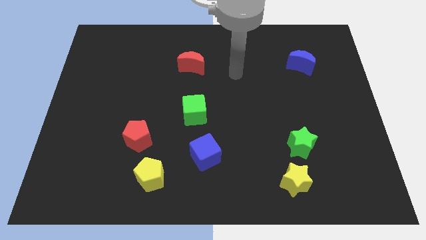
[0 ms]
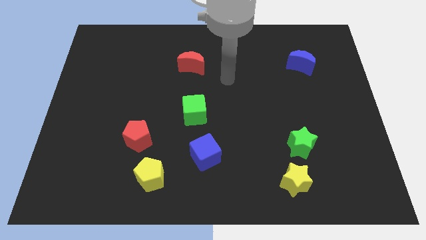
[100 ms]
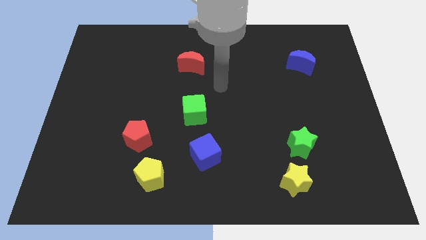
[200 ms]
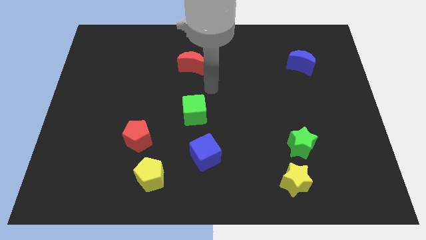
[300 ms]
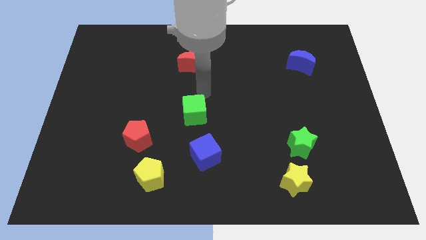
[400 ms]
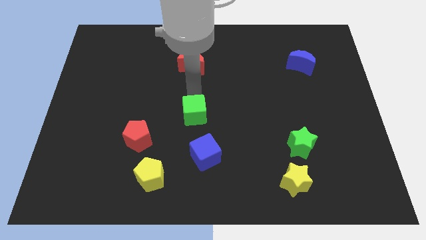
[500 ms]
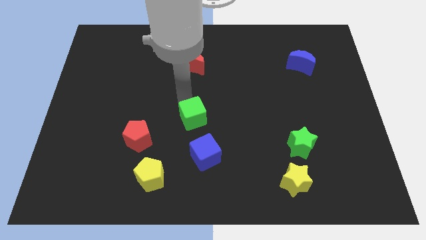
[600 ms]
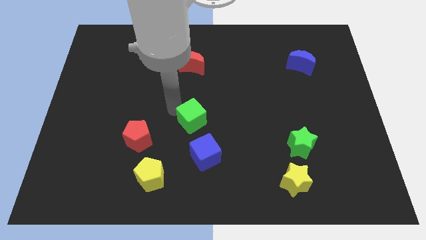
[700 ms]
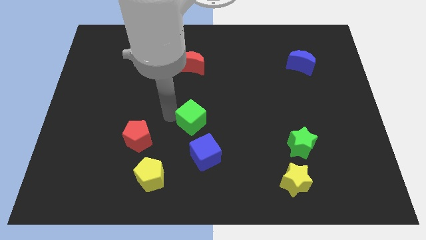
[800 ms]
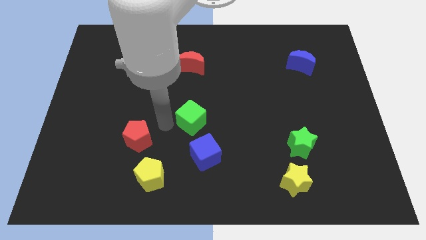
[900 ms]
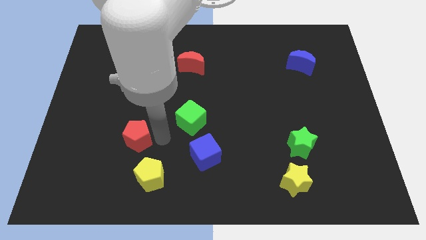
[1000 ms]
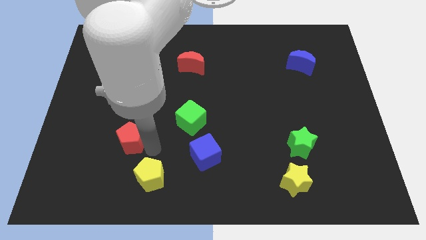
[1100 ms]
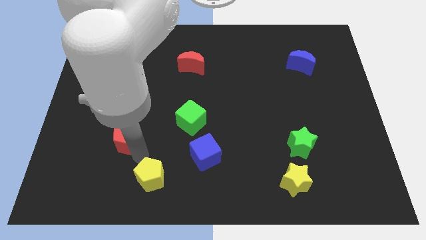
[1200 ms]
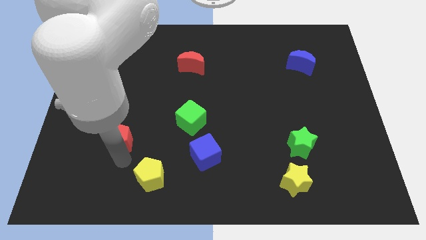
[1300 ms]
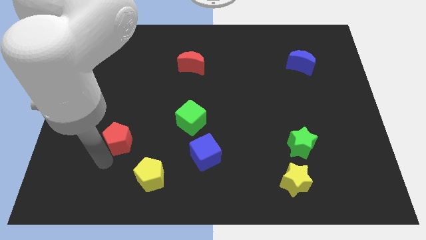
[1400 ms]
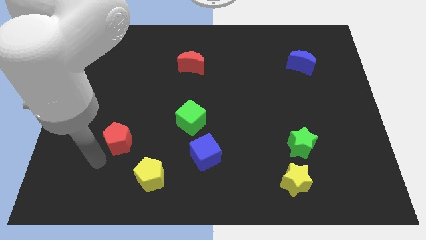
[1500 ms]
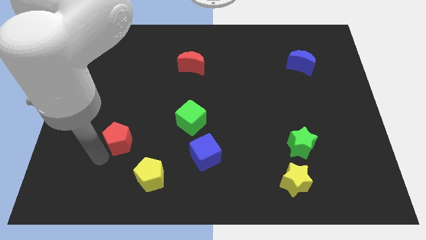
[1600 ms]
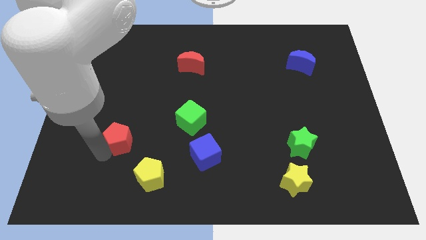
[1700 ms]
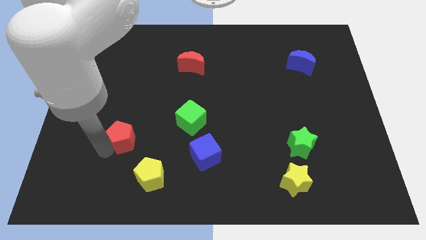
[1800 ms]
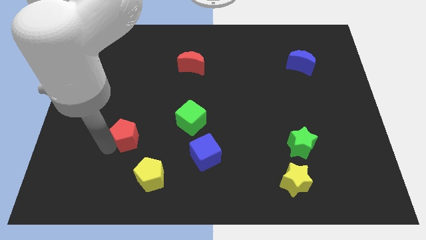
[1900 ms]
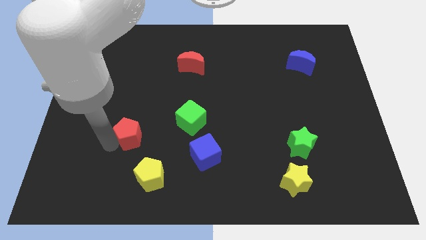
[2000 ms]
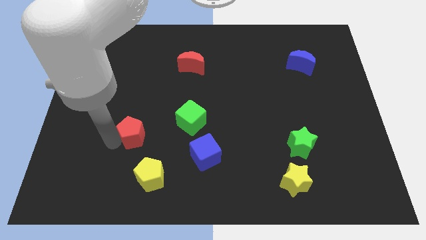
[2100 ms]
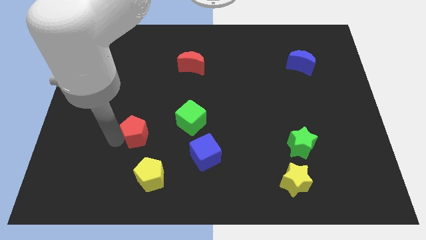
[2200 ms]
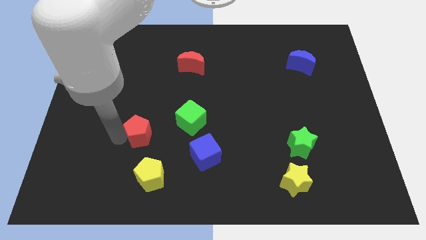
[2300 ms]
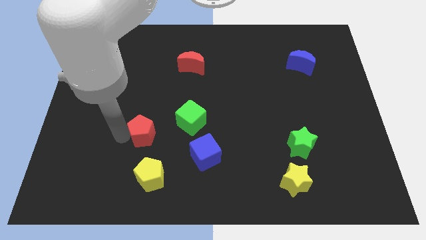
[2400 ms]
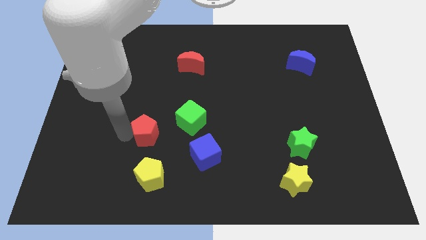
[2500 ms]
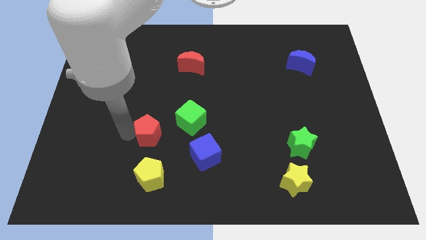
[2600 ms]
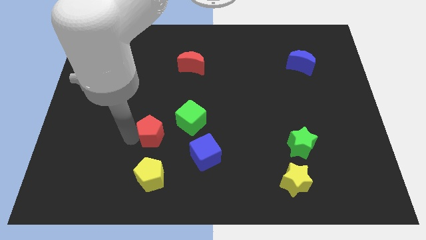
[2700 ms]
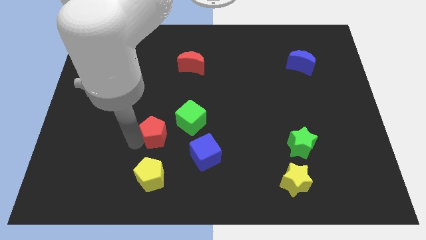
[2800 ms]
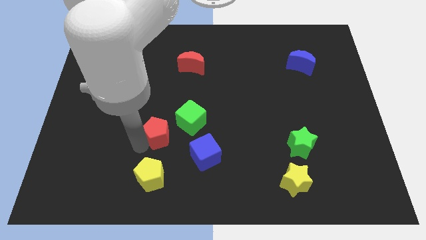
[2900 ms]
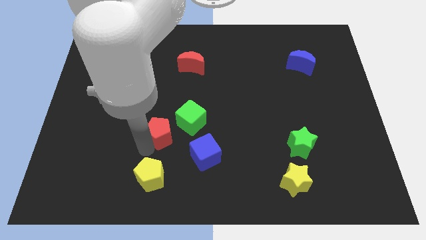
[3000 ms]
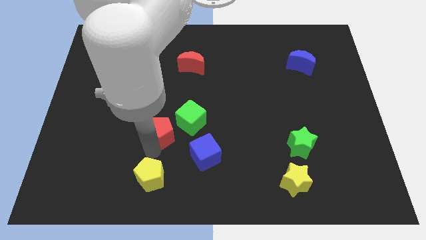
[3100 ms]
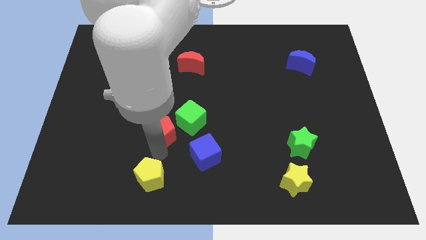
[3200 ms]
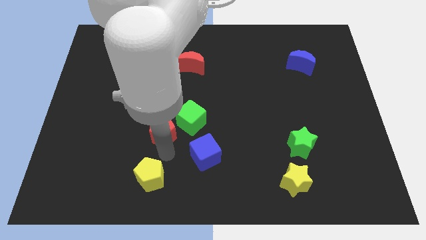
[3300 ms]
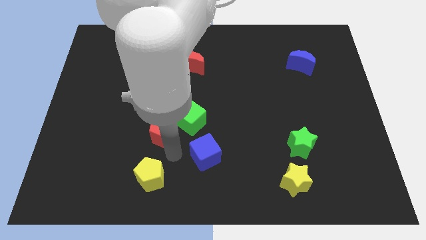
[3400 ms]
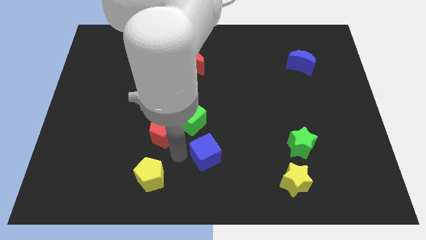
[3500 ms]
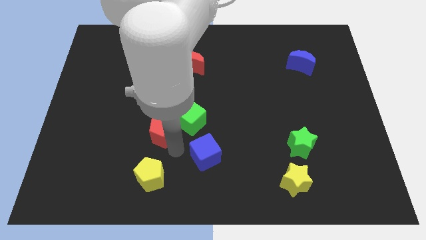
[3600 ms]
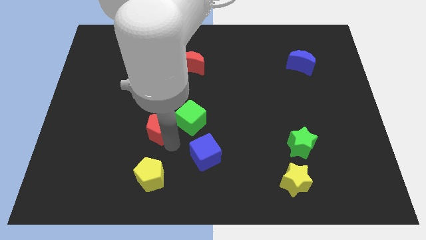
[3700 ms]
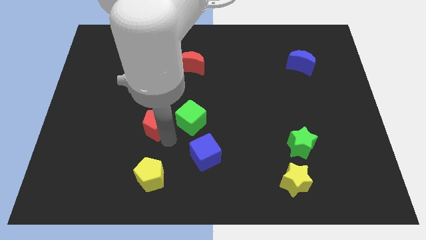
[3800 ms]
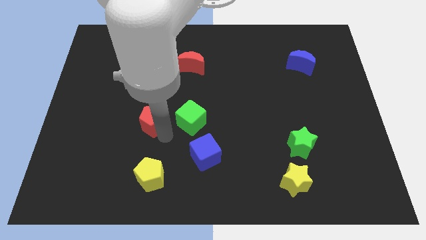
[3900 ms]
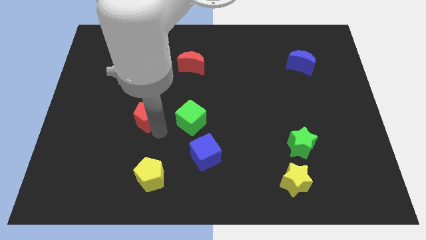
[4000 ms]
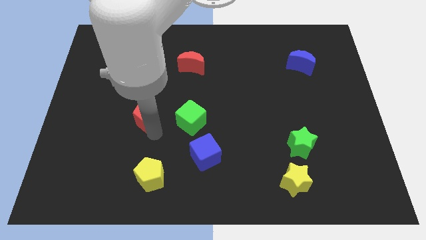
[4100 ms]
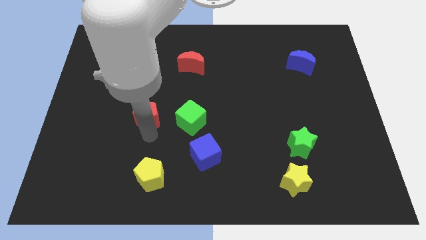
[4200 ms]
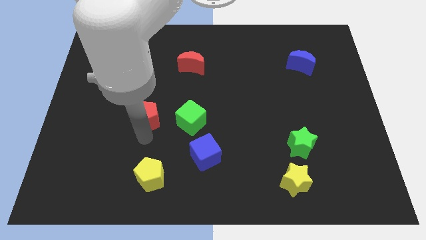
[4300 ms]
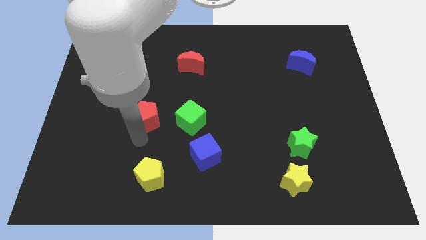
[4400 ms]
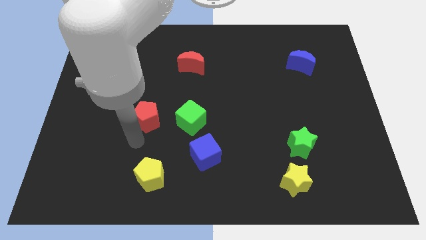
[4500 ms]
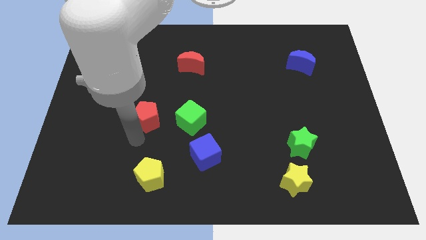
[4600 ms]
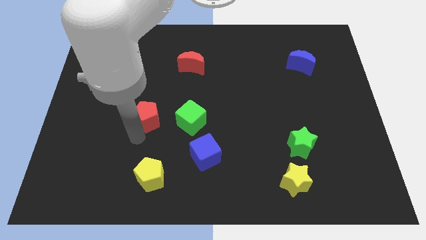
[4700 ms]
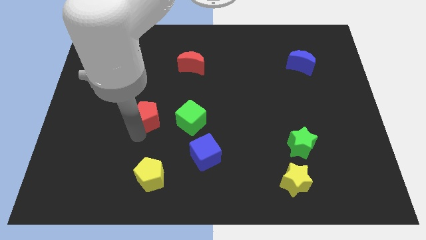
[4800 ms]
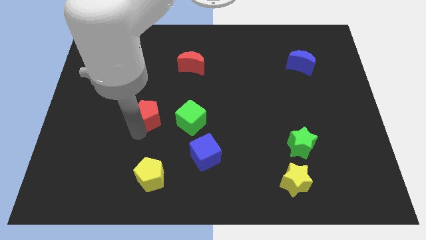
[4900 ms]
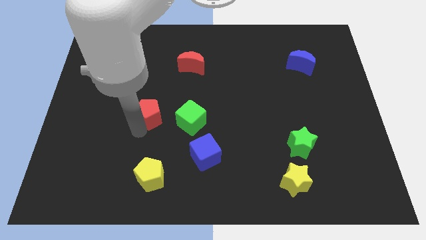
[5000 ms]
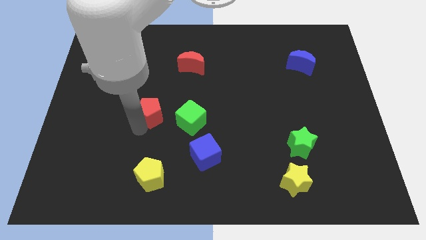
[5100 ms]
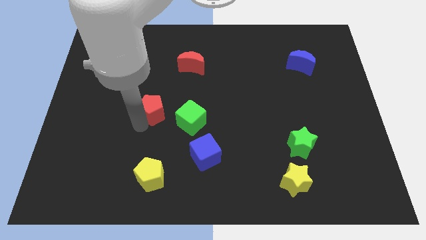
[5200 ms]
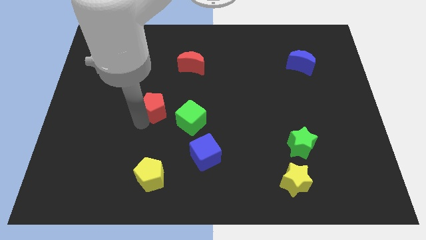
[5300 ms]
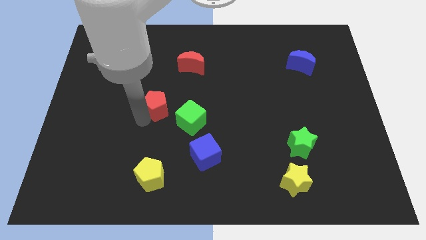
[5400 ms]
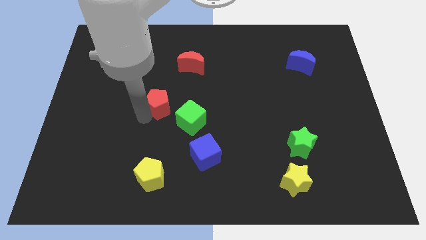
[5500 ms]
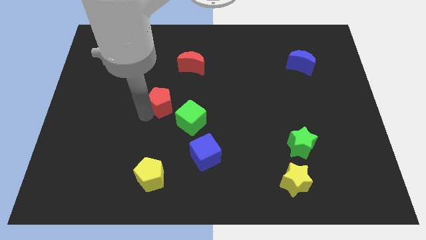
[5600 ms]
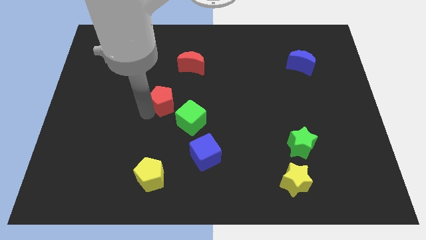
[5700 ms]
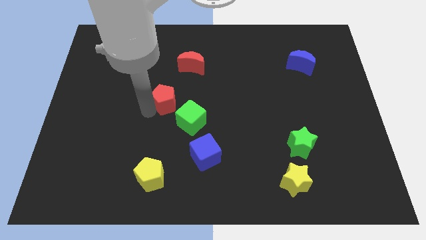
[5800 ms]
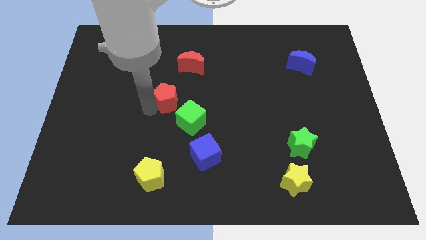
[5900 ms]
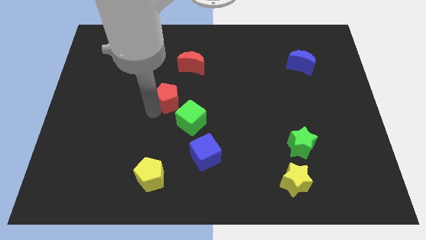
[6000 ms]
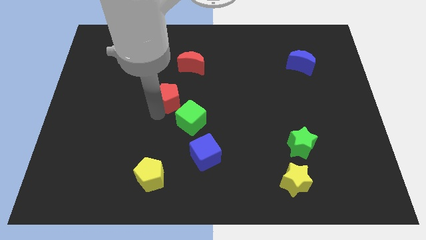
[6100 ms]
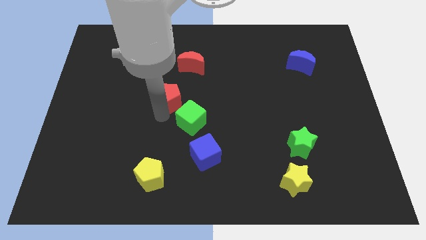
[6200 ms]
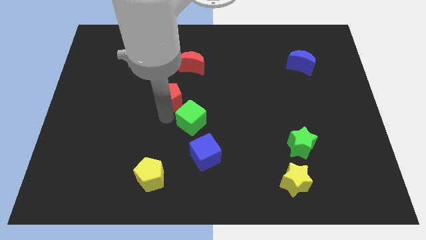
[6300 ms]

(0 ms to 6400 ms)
put the red pentagon above the green cube

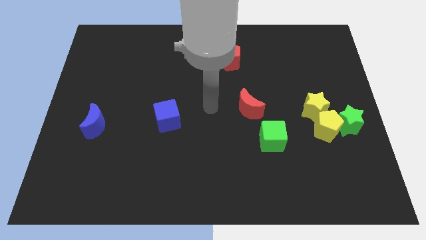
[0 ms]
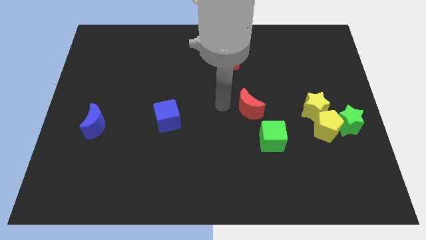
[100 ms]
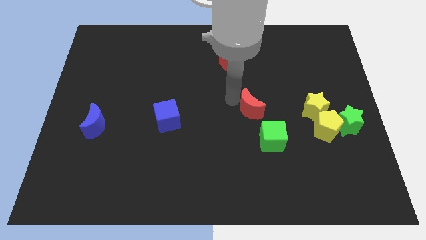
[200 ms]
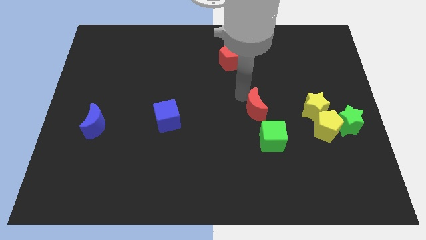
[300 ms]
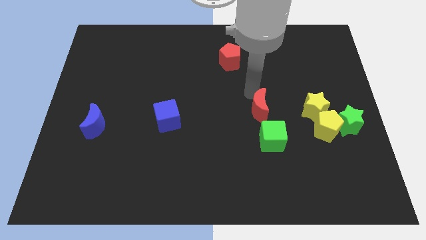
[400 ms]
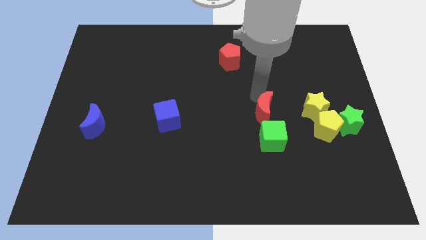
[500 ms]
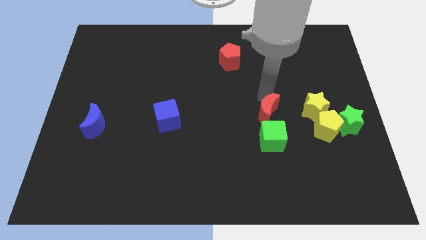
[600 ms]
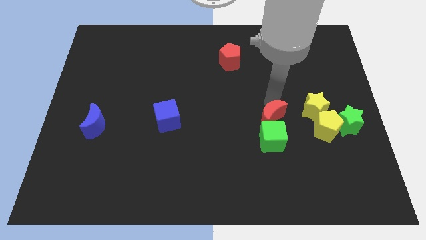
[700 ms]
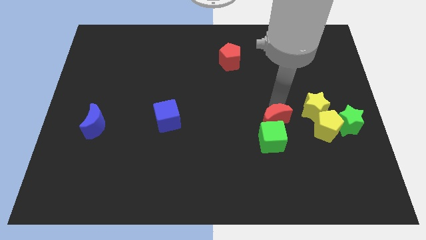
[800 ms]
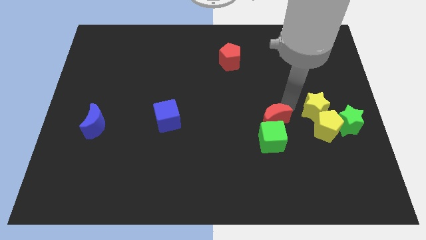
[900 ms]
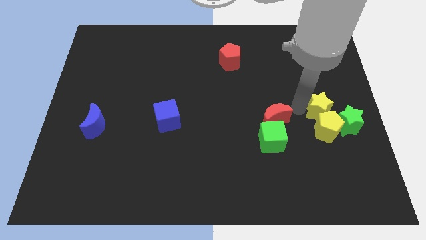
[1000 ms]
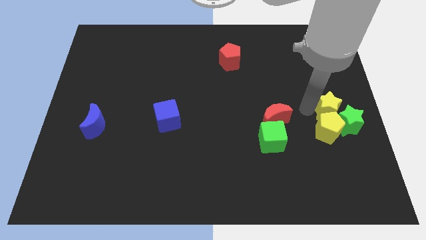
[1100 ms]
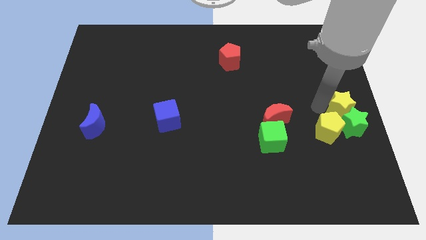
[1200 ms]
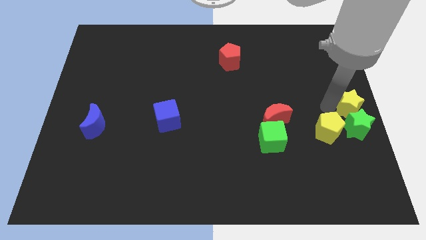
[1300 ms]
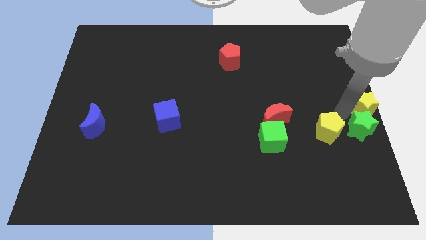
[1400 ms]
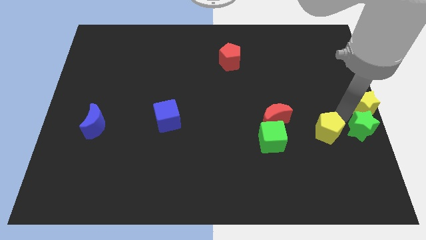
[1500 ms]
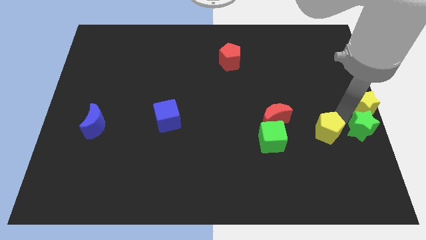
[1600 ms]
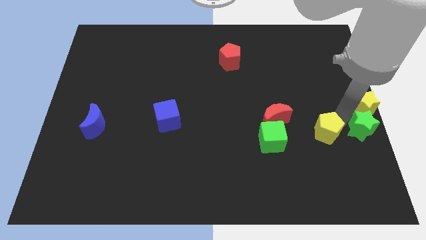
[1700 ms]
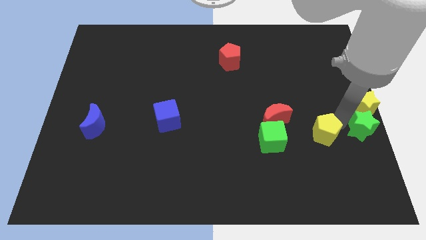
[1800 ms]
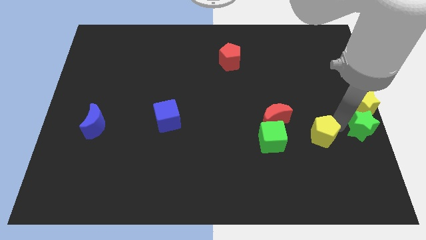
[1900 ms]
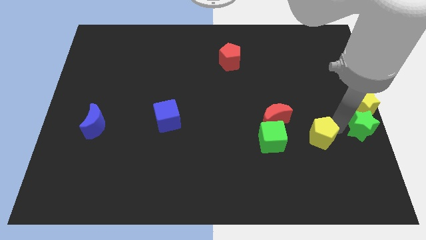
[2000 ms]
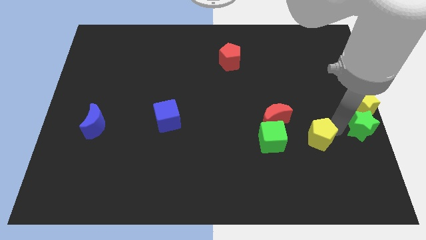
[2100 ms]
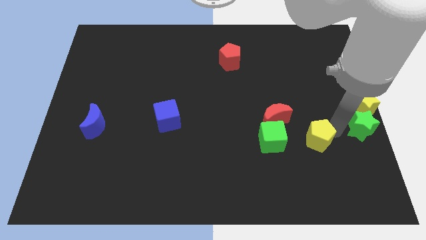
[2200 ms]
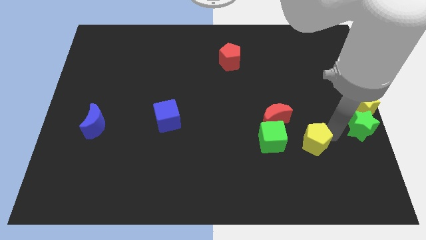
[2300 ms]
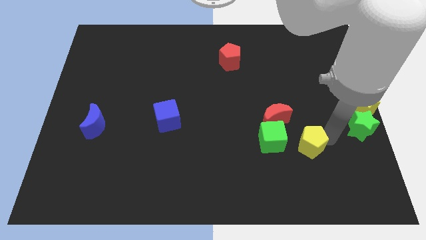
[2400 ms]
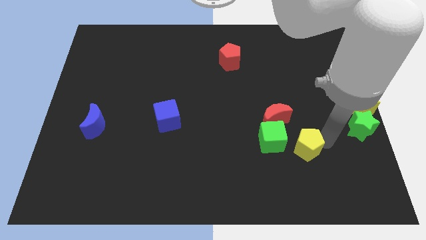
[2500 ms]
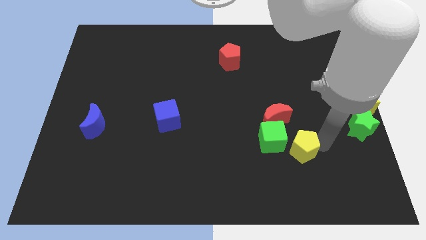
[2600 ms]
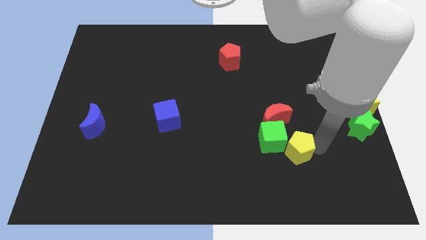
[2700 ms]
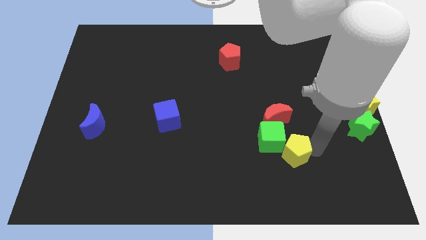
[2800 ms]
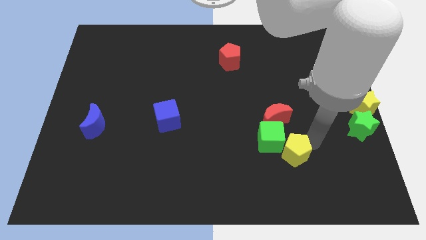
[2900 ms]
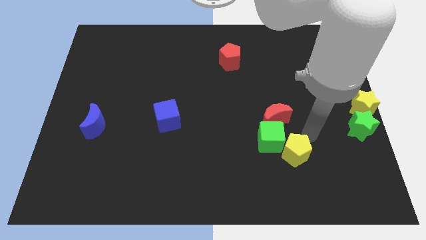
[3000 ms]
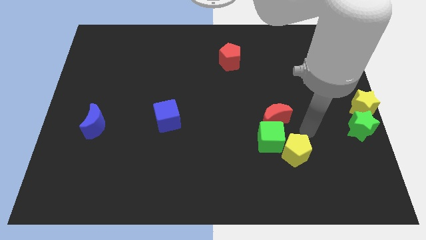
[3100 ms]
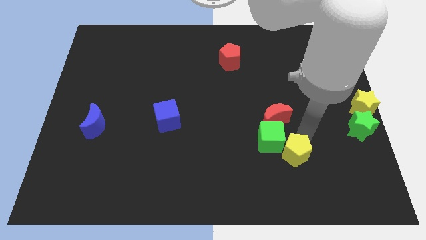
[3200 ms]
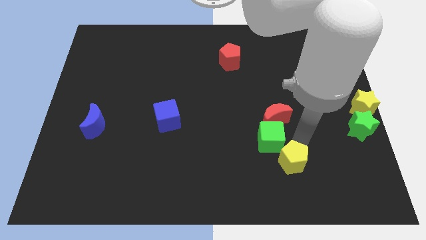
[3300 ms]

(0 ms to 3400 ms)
move the yellow pentagon to the bottom of the green cube
